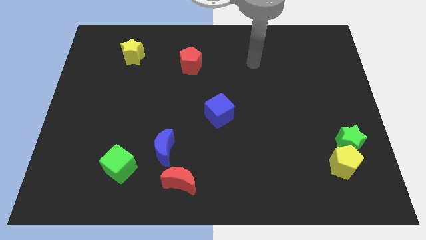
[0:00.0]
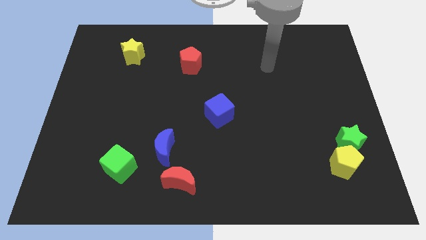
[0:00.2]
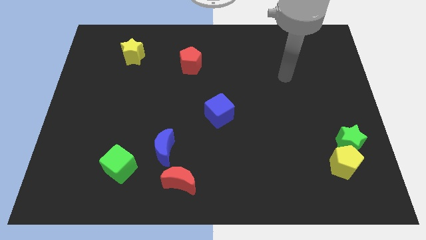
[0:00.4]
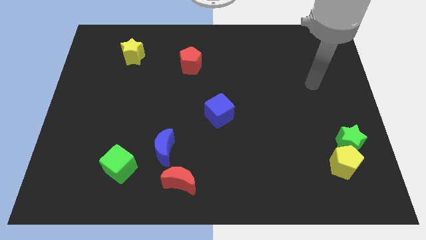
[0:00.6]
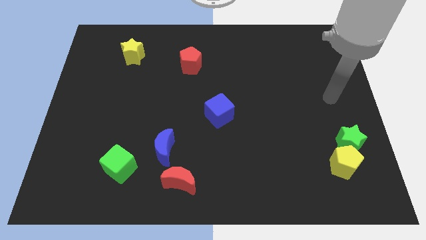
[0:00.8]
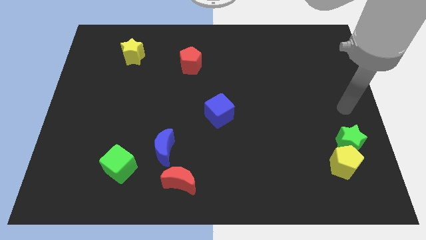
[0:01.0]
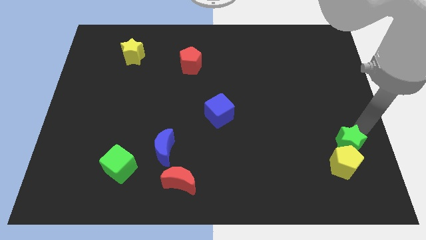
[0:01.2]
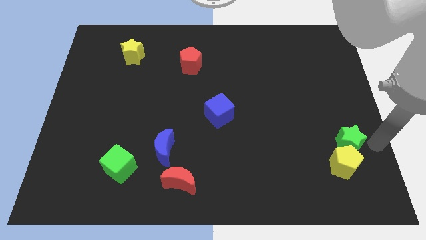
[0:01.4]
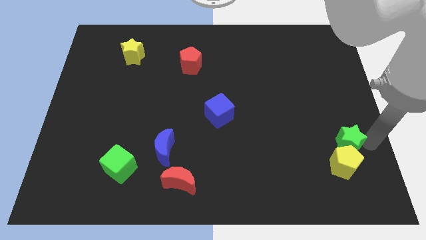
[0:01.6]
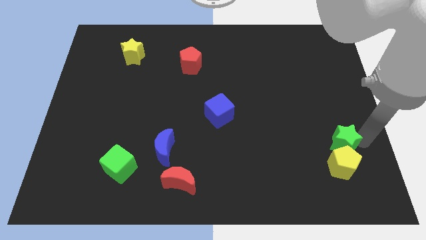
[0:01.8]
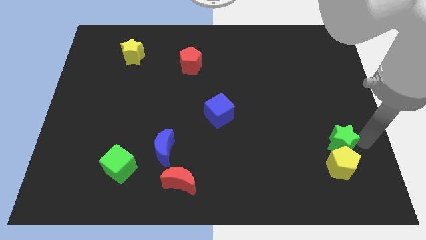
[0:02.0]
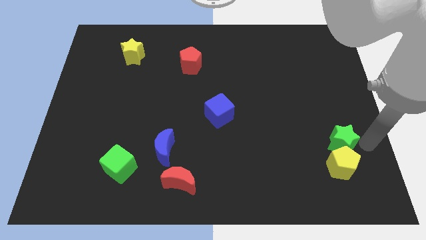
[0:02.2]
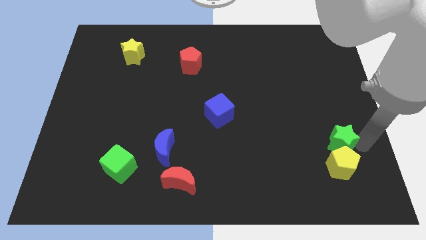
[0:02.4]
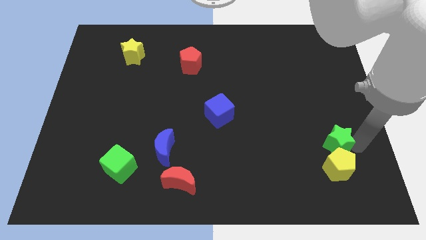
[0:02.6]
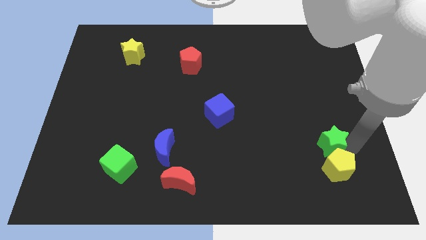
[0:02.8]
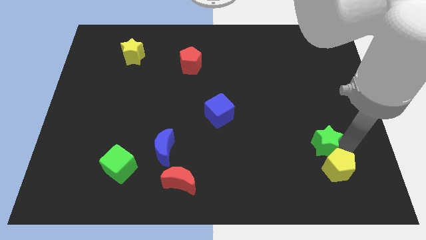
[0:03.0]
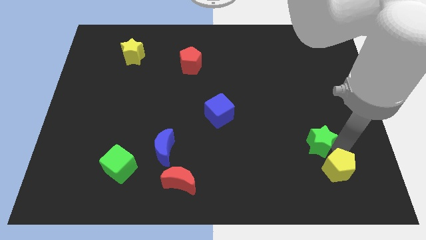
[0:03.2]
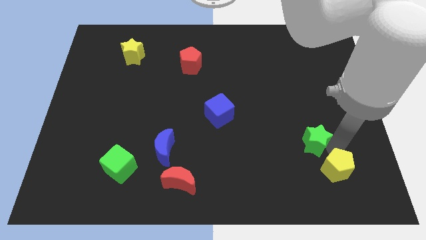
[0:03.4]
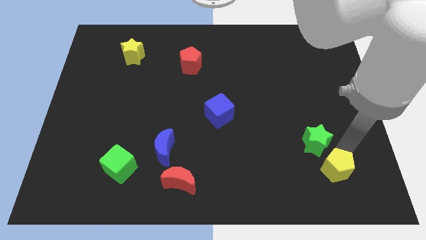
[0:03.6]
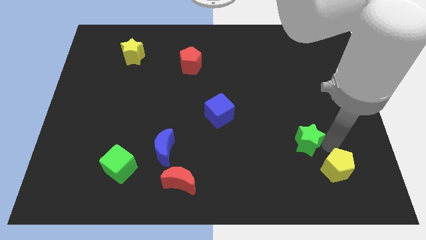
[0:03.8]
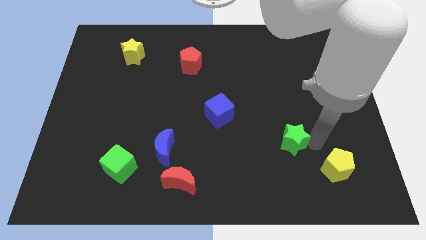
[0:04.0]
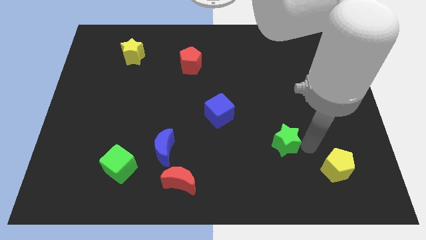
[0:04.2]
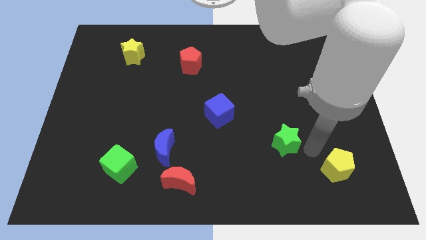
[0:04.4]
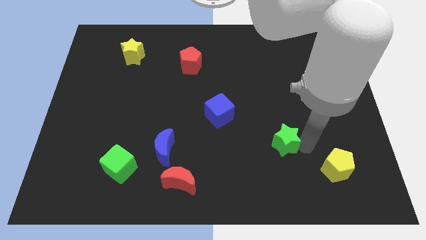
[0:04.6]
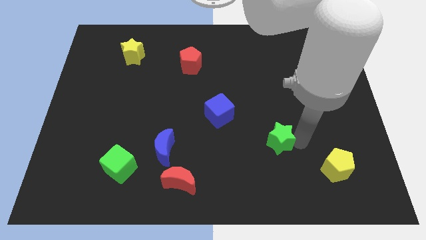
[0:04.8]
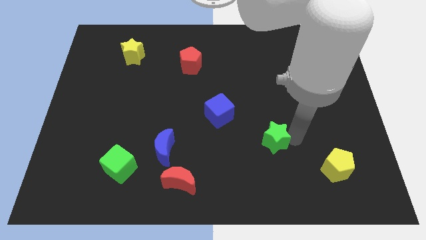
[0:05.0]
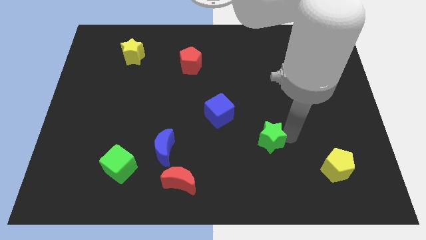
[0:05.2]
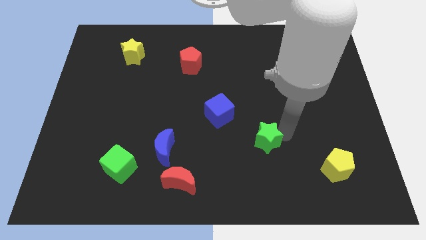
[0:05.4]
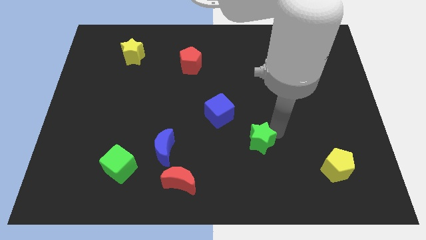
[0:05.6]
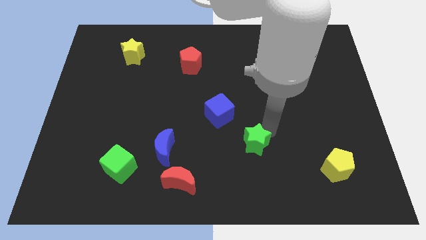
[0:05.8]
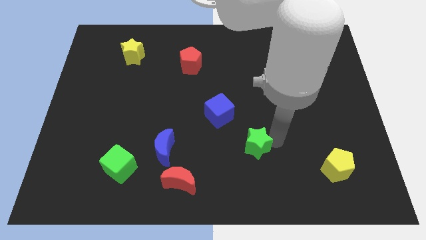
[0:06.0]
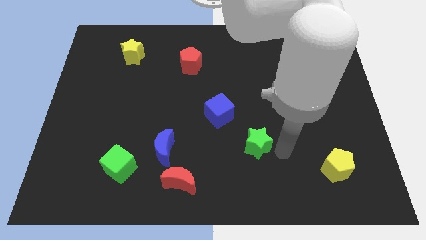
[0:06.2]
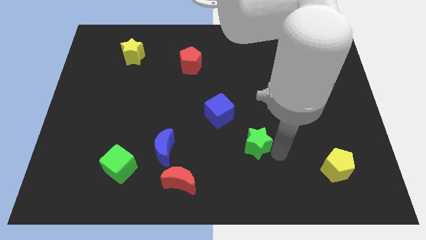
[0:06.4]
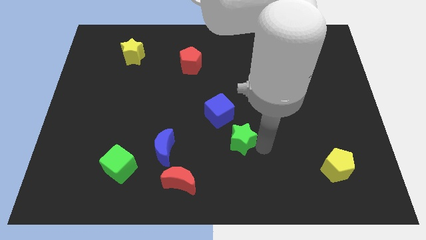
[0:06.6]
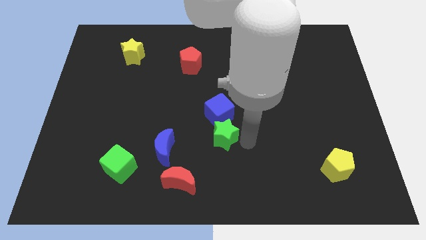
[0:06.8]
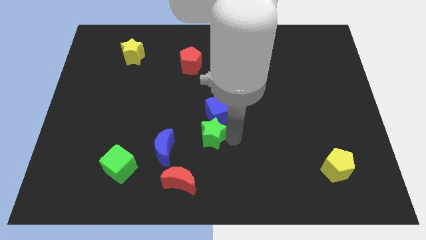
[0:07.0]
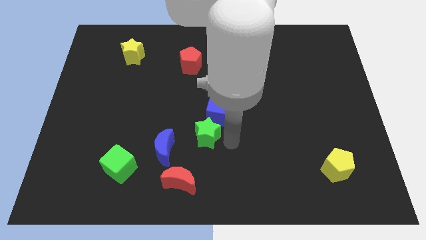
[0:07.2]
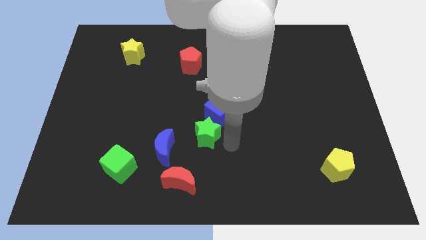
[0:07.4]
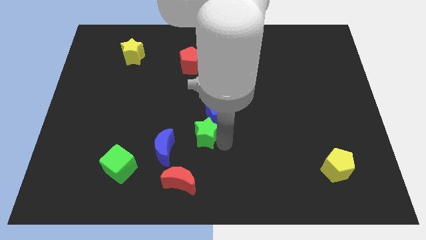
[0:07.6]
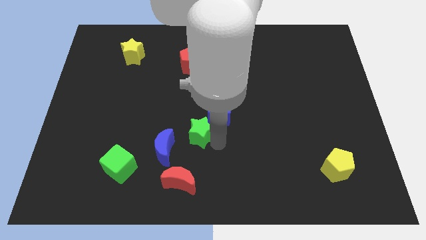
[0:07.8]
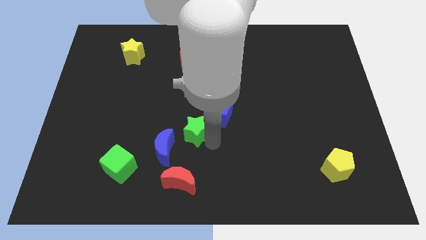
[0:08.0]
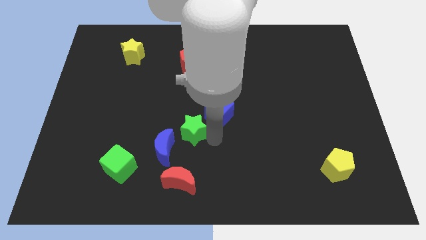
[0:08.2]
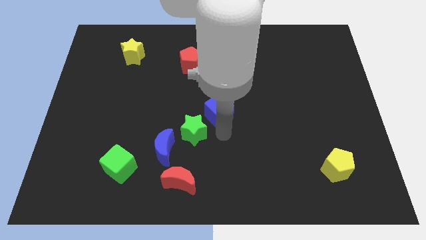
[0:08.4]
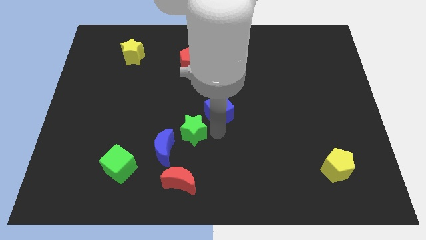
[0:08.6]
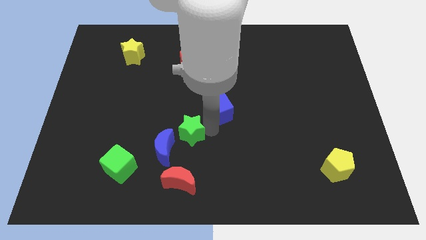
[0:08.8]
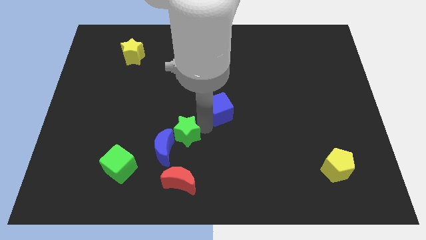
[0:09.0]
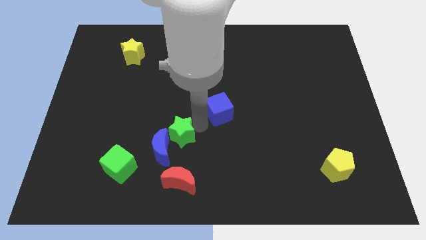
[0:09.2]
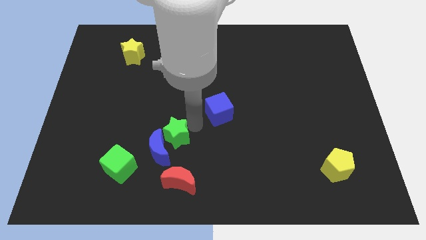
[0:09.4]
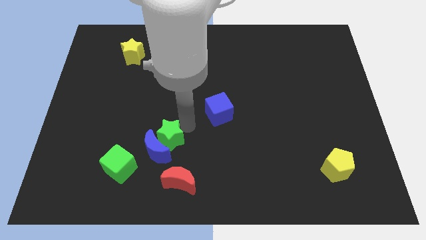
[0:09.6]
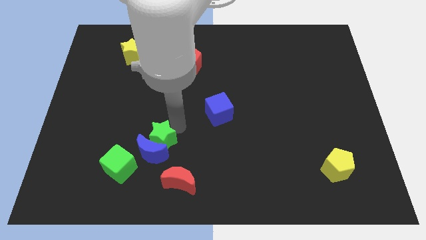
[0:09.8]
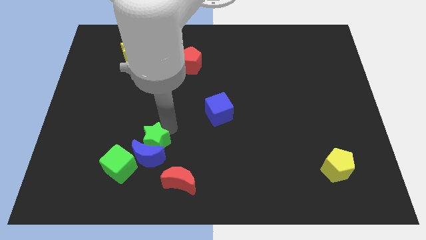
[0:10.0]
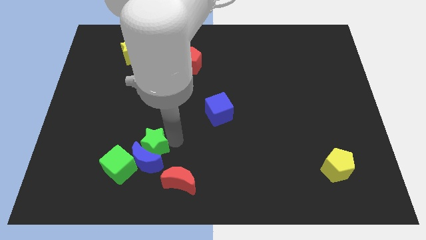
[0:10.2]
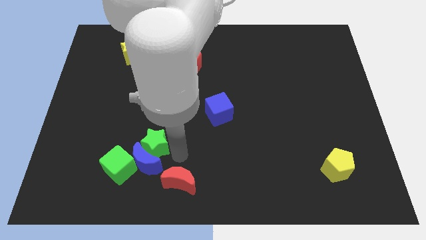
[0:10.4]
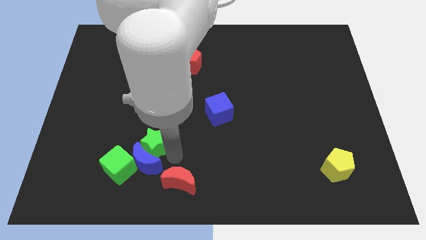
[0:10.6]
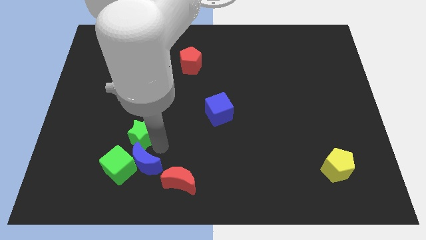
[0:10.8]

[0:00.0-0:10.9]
move the green star to the top side of the green cube

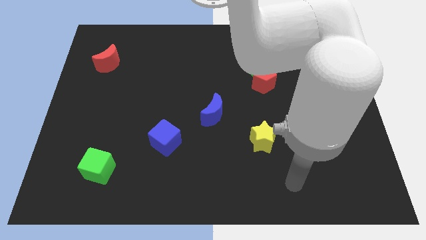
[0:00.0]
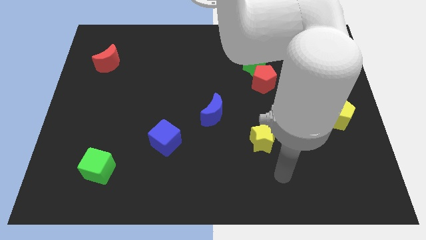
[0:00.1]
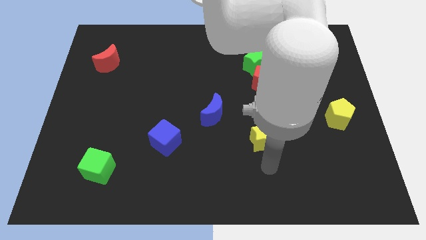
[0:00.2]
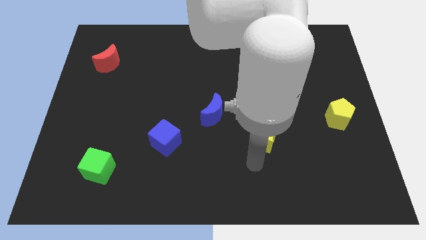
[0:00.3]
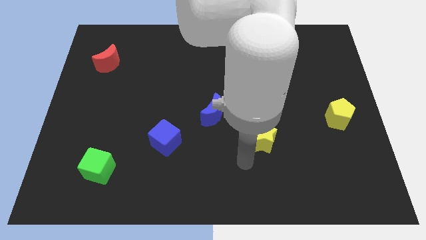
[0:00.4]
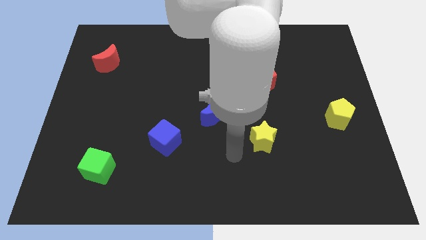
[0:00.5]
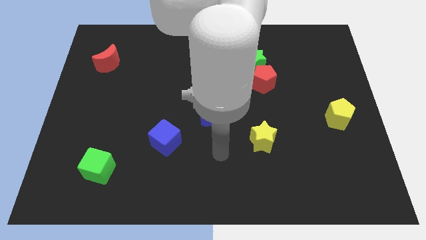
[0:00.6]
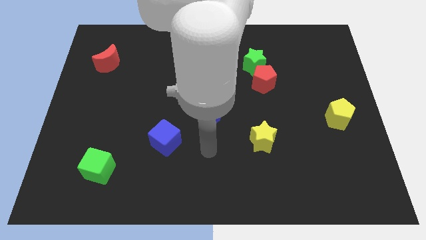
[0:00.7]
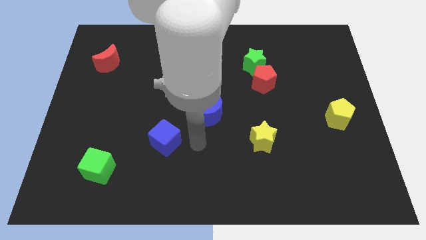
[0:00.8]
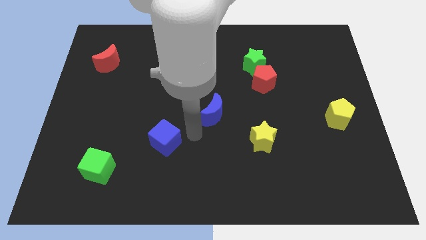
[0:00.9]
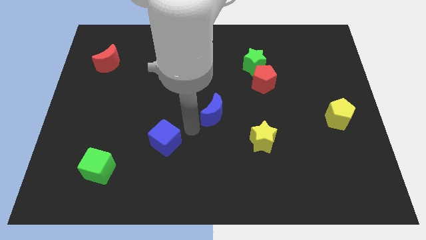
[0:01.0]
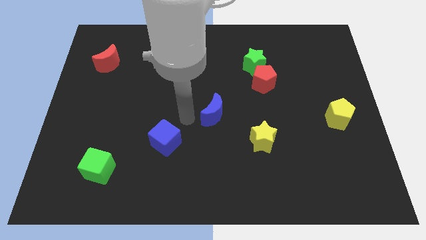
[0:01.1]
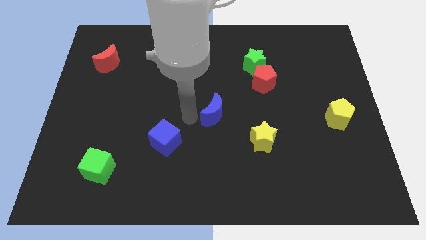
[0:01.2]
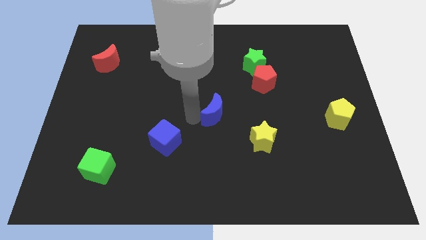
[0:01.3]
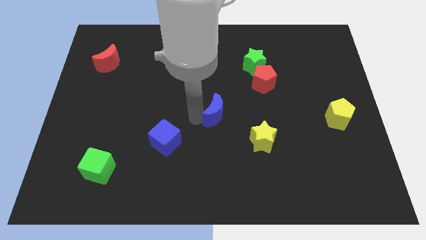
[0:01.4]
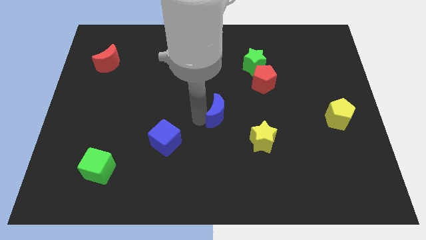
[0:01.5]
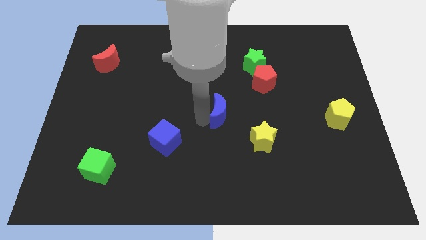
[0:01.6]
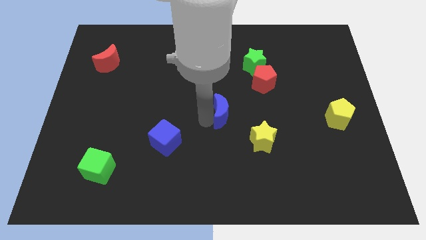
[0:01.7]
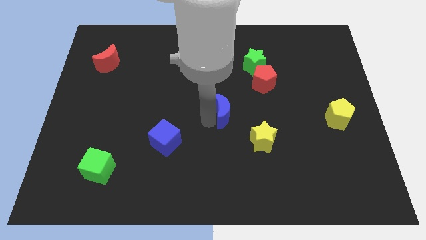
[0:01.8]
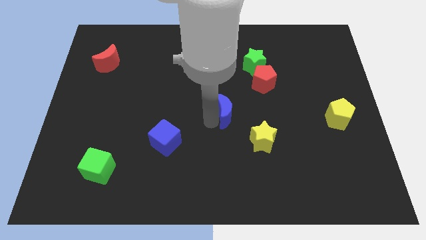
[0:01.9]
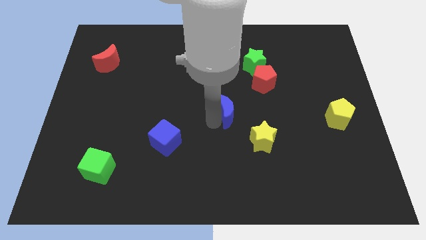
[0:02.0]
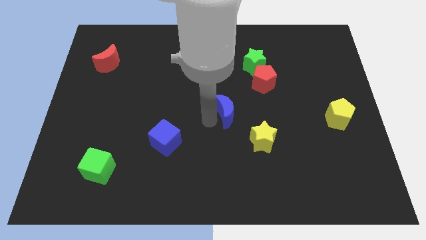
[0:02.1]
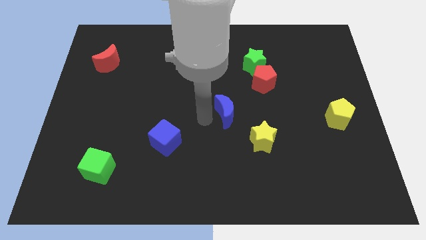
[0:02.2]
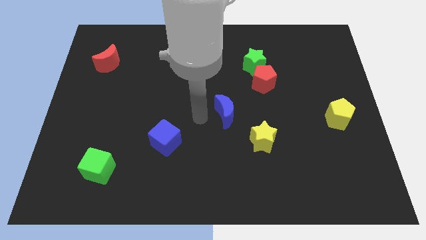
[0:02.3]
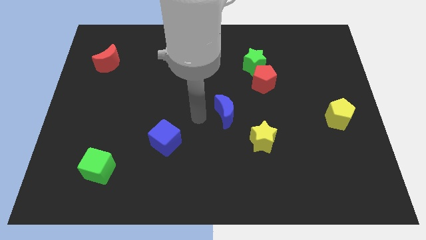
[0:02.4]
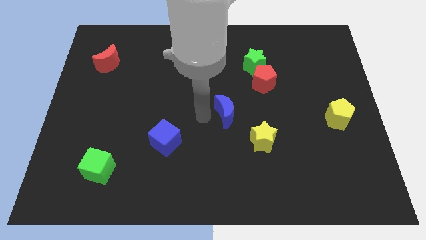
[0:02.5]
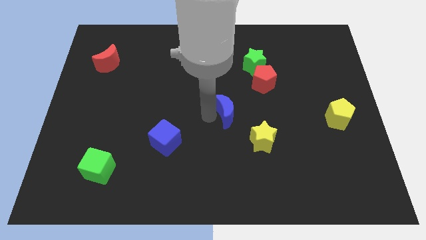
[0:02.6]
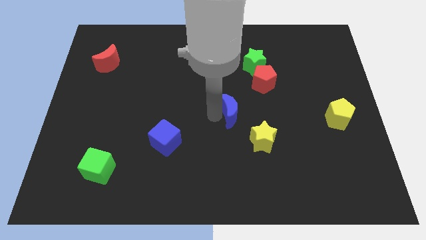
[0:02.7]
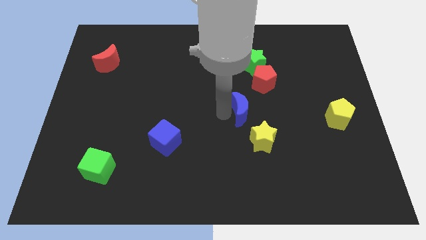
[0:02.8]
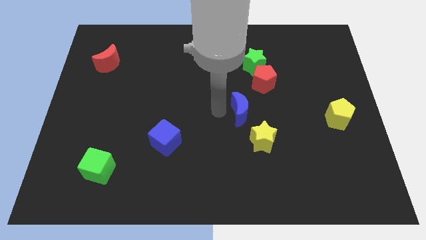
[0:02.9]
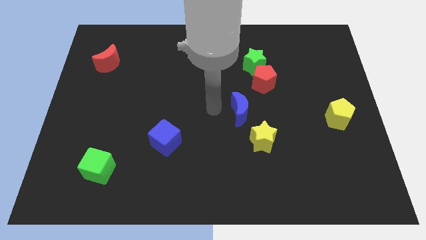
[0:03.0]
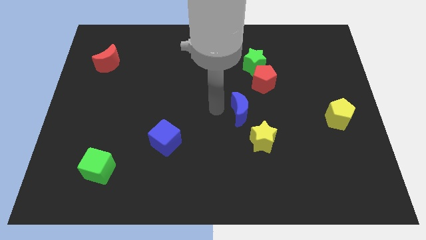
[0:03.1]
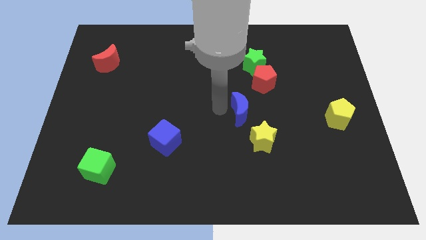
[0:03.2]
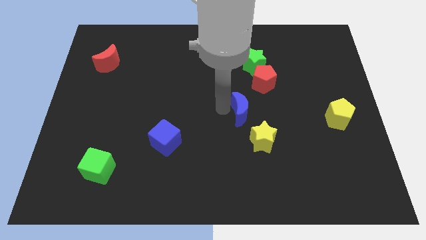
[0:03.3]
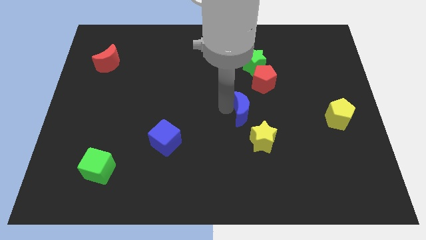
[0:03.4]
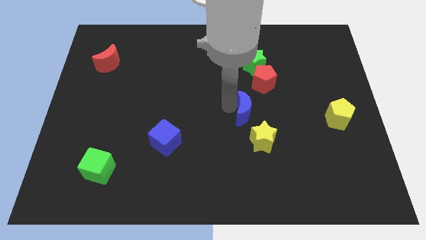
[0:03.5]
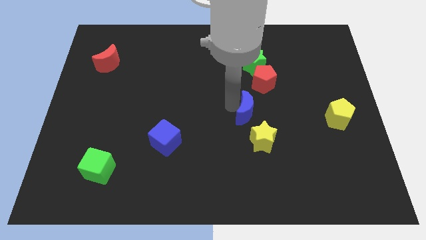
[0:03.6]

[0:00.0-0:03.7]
push the blue moon below the red pentagon
